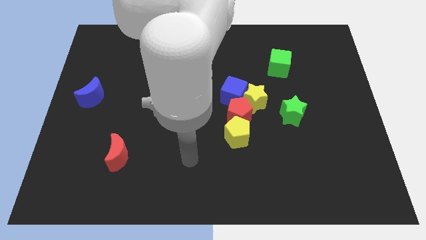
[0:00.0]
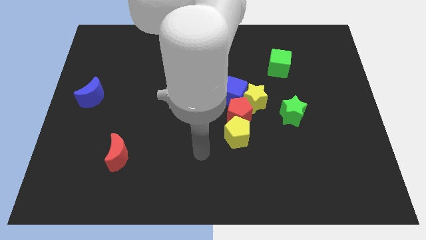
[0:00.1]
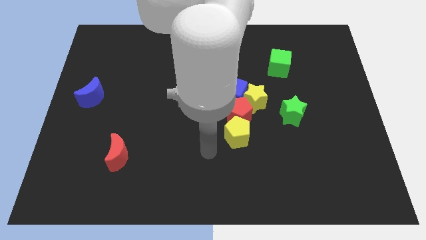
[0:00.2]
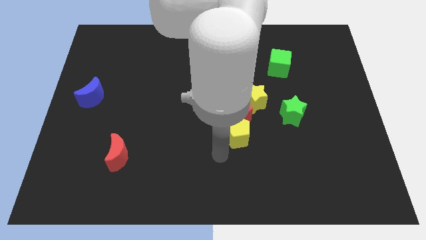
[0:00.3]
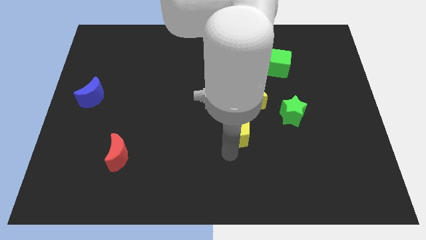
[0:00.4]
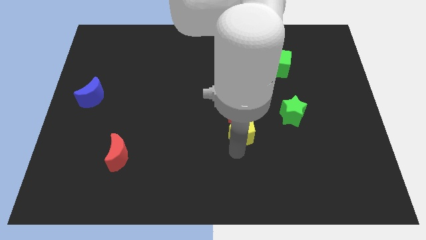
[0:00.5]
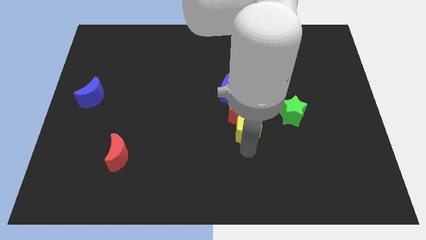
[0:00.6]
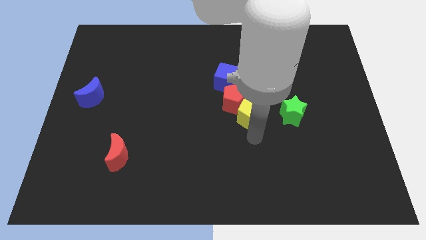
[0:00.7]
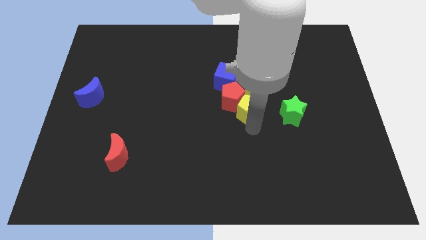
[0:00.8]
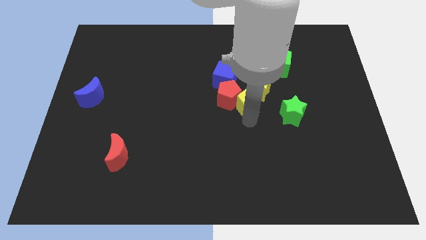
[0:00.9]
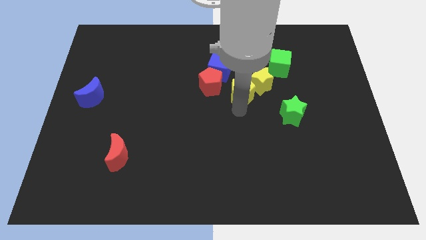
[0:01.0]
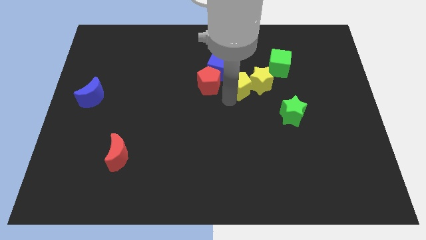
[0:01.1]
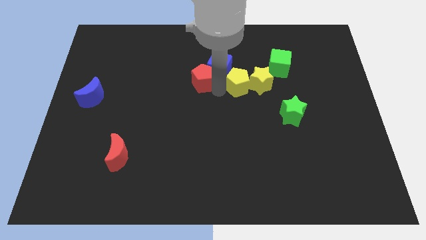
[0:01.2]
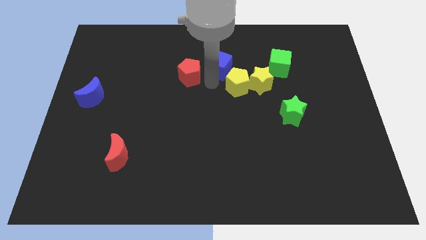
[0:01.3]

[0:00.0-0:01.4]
move the yellow pentagon away from the red pentagon

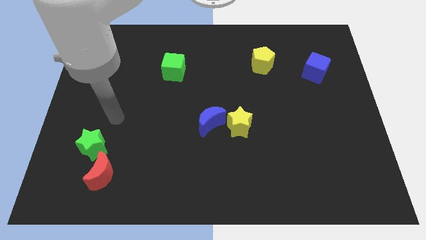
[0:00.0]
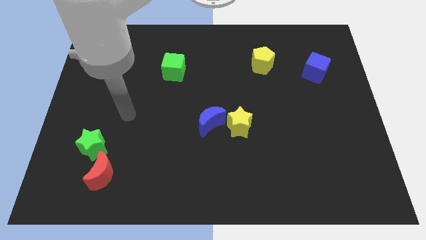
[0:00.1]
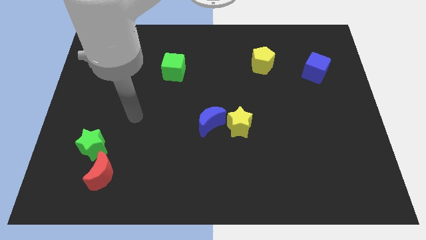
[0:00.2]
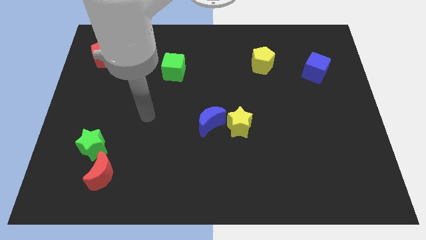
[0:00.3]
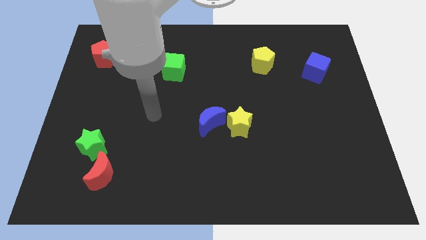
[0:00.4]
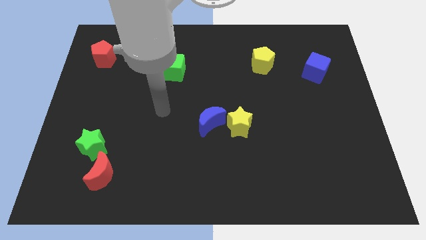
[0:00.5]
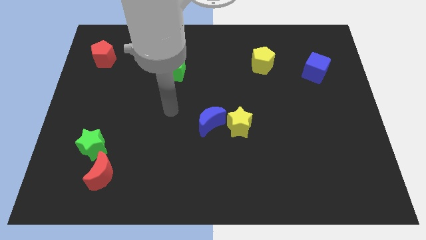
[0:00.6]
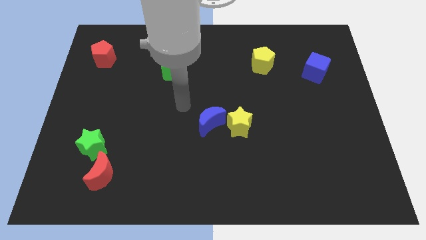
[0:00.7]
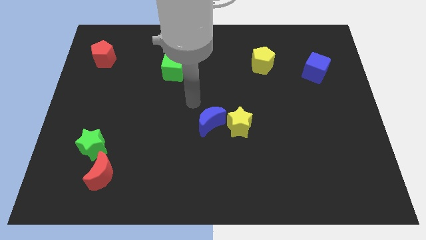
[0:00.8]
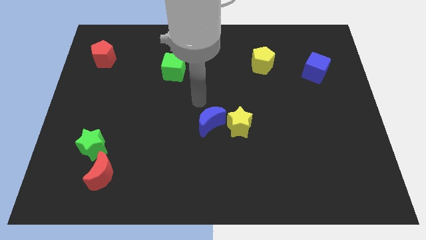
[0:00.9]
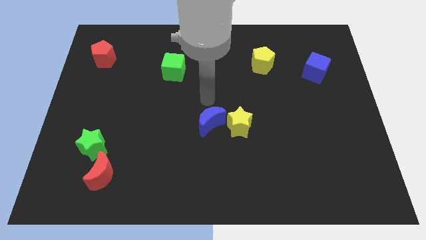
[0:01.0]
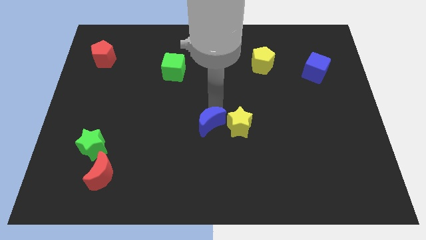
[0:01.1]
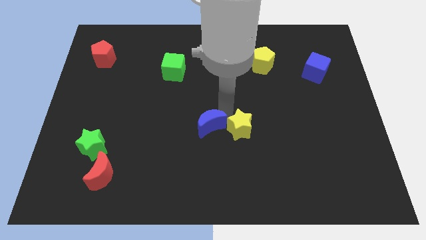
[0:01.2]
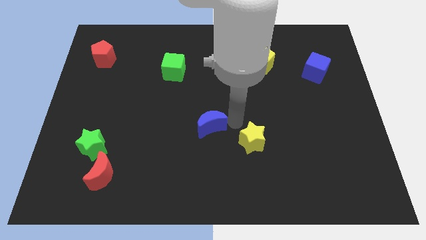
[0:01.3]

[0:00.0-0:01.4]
pull the blue moon apart from the yellow star

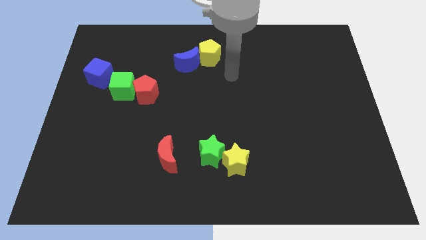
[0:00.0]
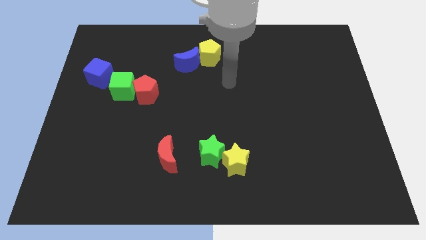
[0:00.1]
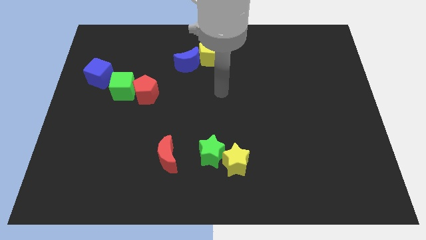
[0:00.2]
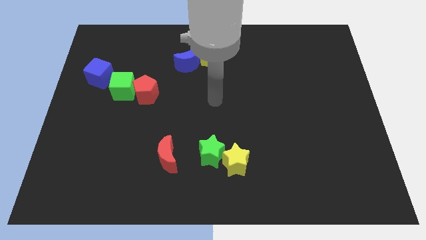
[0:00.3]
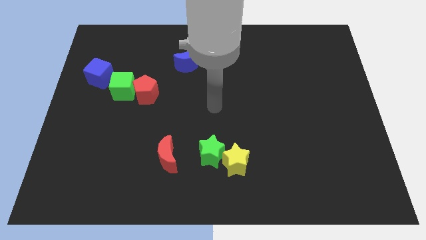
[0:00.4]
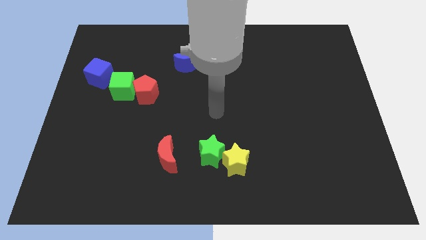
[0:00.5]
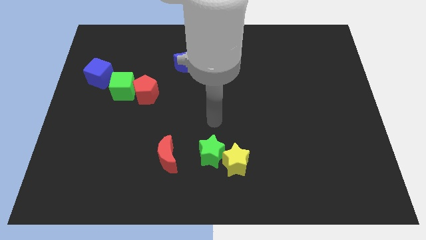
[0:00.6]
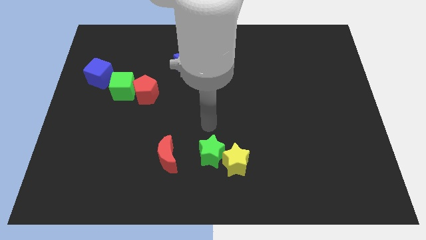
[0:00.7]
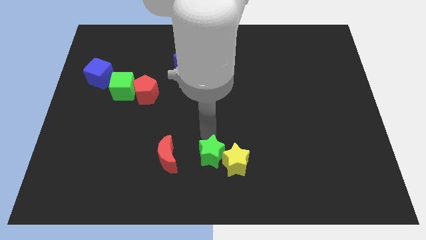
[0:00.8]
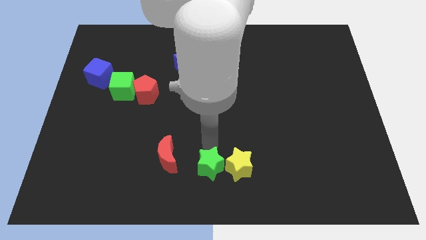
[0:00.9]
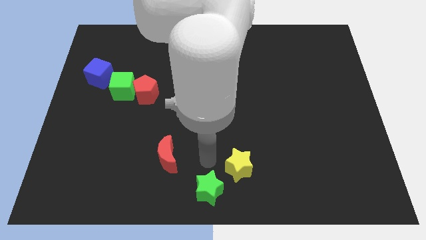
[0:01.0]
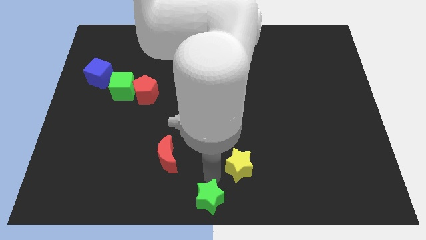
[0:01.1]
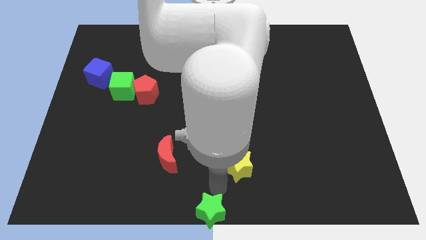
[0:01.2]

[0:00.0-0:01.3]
move the yellow star away from the green star

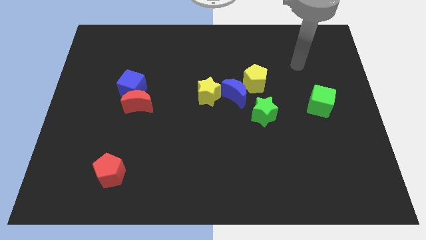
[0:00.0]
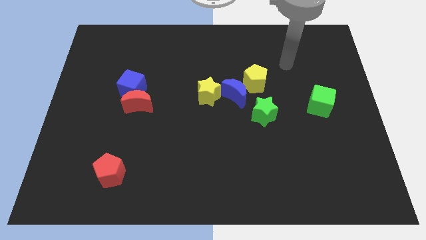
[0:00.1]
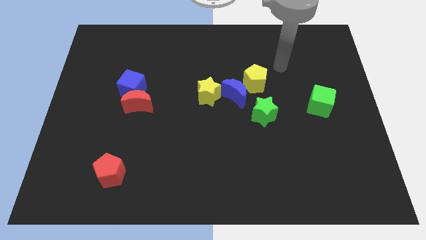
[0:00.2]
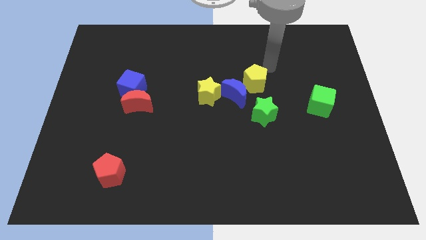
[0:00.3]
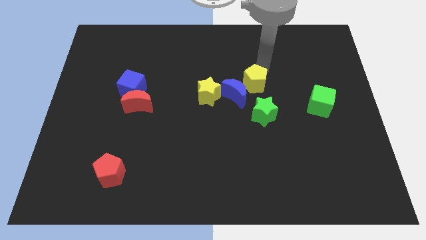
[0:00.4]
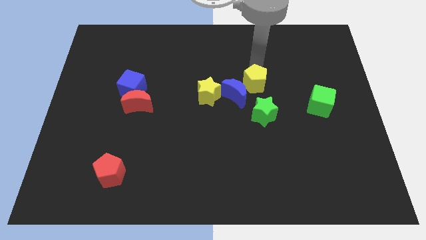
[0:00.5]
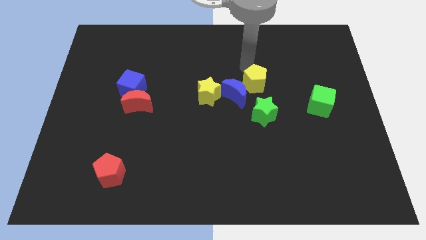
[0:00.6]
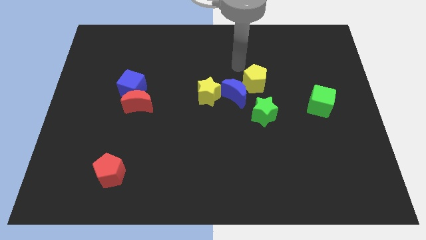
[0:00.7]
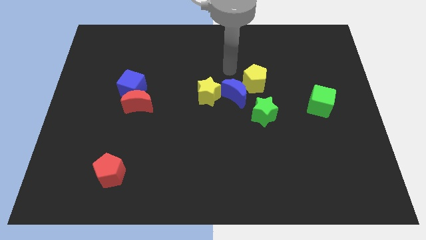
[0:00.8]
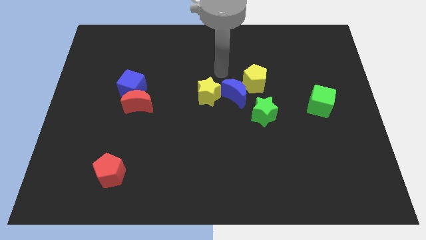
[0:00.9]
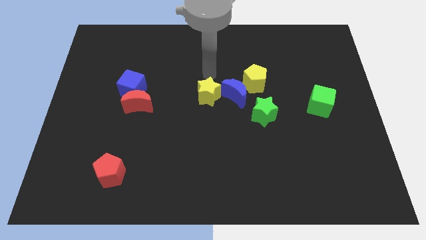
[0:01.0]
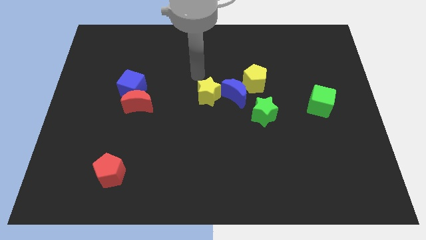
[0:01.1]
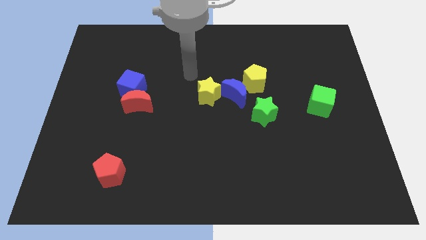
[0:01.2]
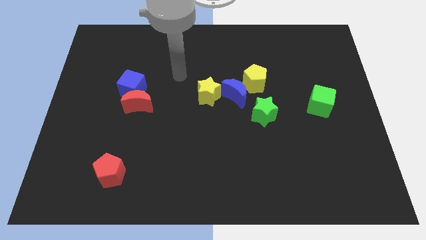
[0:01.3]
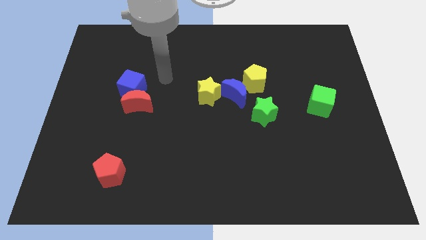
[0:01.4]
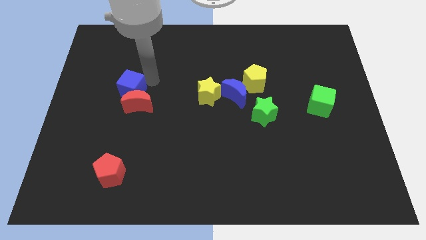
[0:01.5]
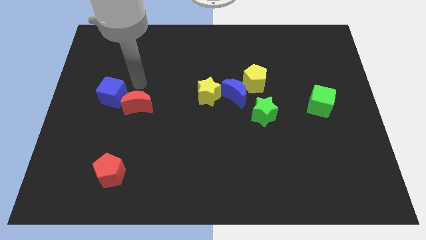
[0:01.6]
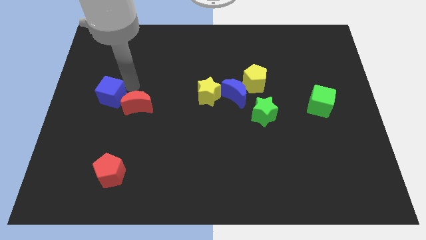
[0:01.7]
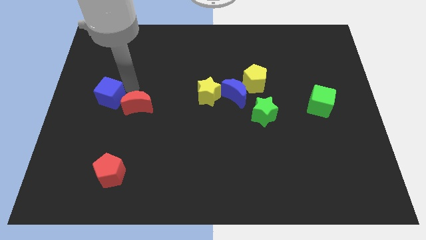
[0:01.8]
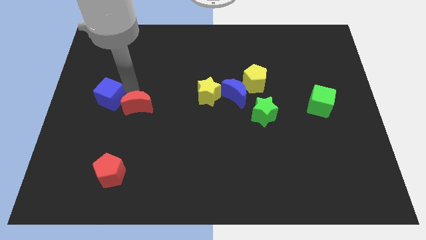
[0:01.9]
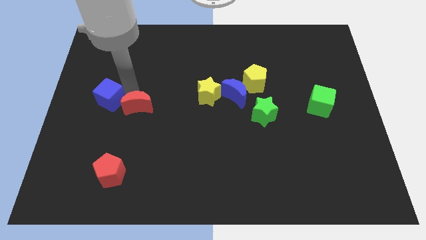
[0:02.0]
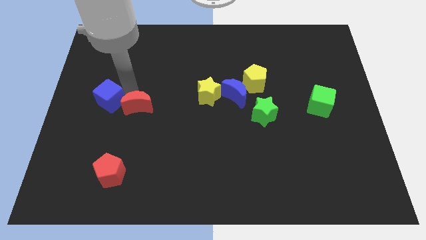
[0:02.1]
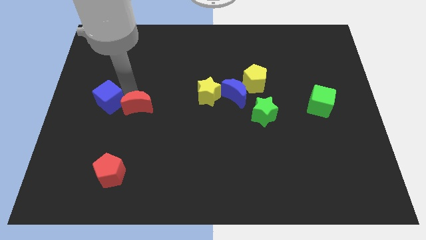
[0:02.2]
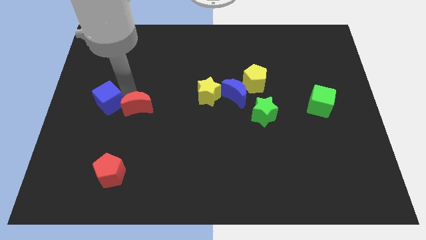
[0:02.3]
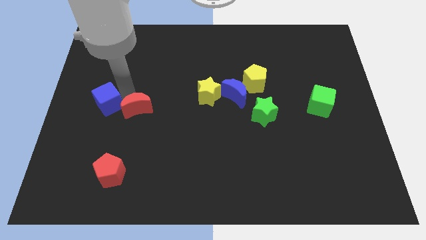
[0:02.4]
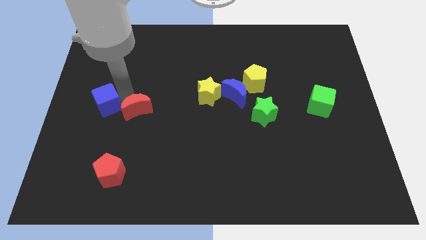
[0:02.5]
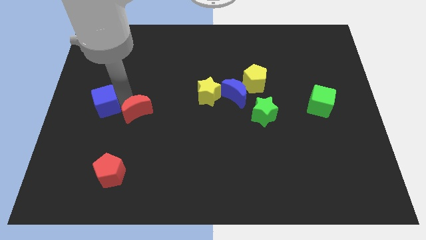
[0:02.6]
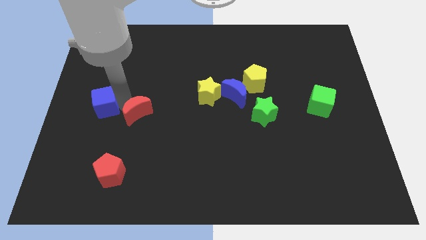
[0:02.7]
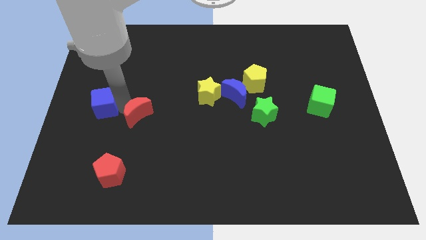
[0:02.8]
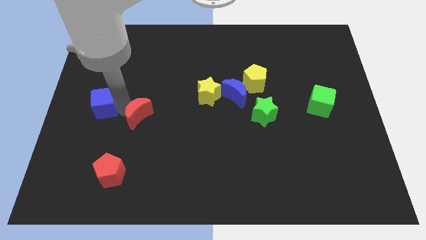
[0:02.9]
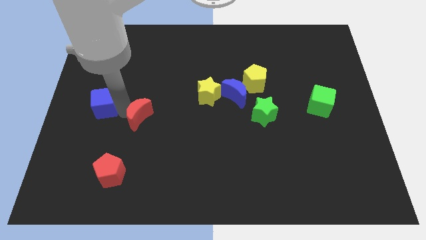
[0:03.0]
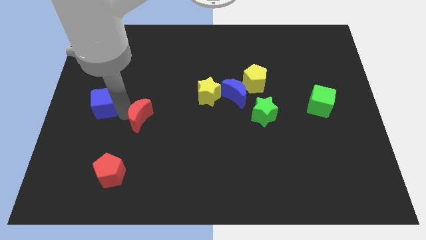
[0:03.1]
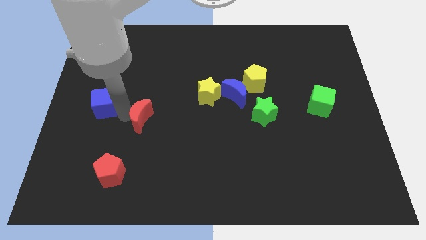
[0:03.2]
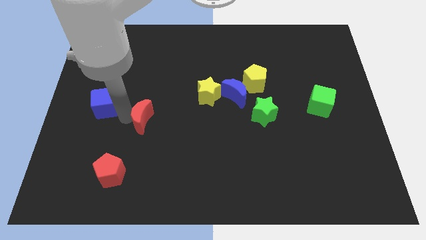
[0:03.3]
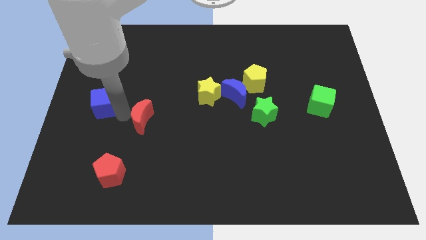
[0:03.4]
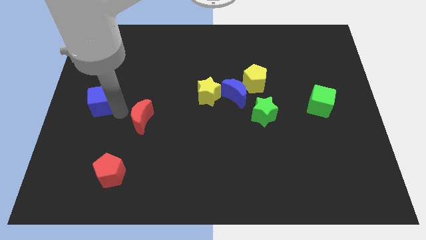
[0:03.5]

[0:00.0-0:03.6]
move the red moon away from the blue cube

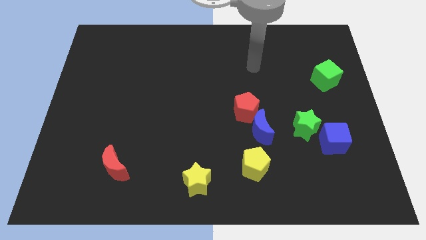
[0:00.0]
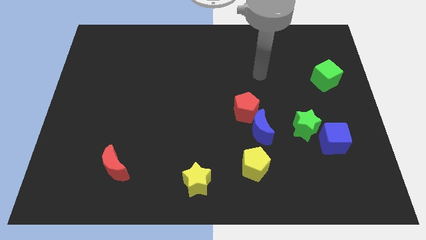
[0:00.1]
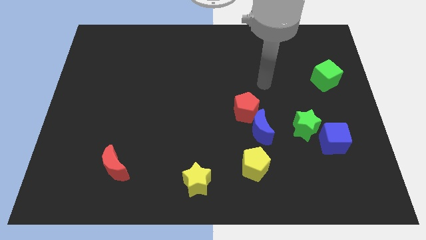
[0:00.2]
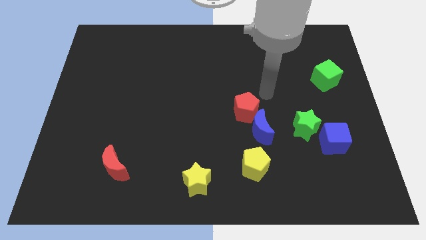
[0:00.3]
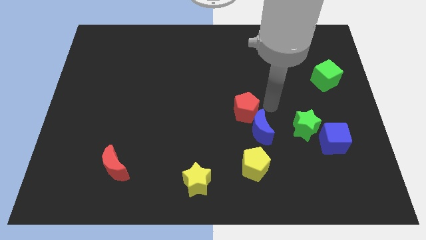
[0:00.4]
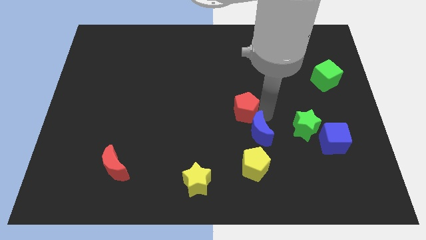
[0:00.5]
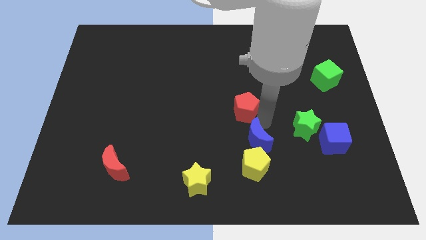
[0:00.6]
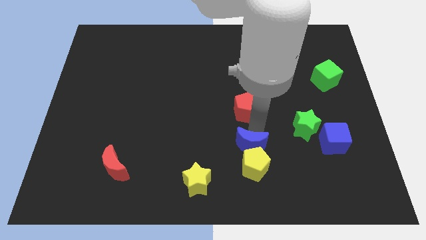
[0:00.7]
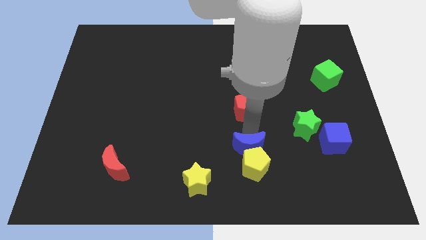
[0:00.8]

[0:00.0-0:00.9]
separate the red pentagon from the blue moon

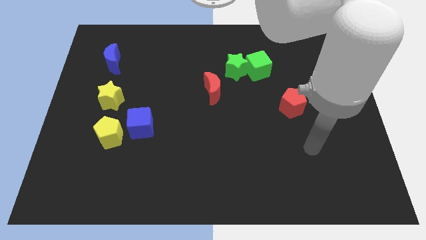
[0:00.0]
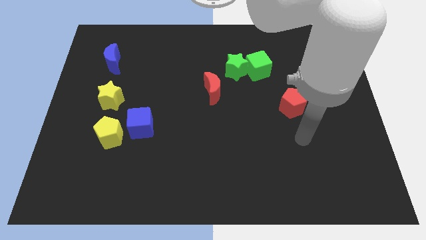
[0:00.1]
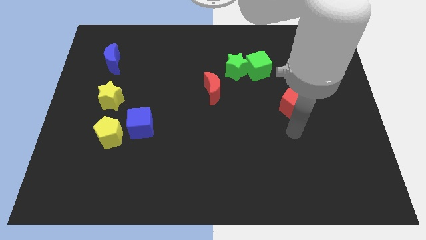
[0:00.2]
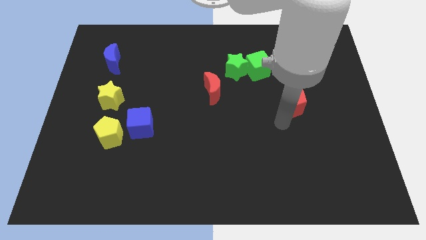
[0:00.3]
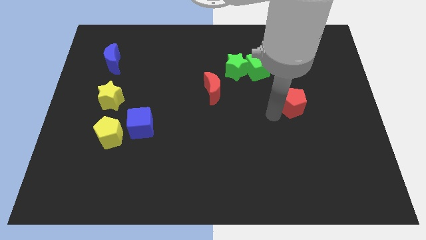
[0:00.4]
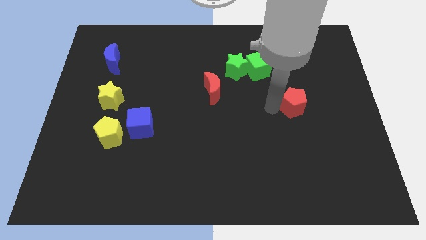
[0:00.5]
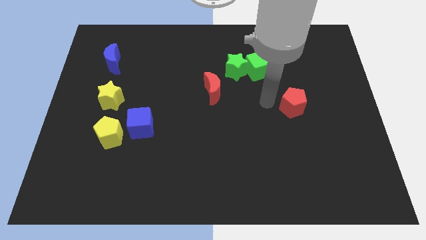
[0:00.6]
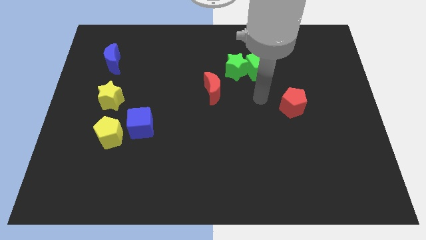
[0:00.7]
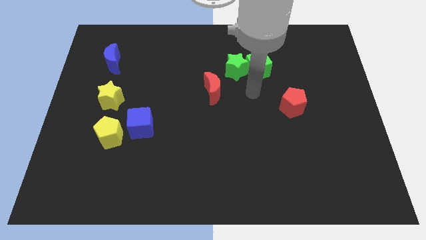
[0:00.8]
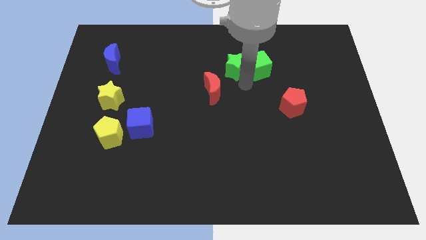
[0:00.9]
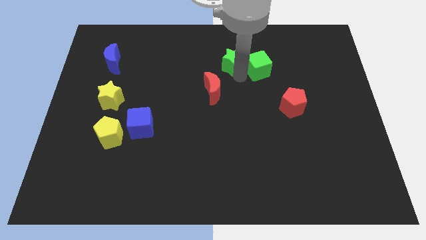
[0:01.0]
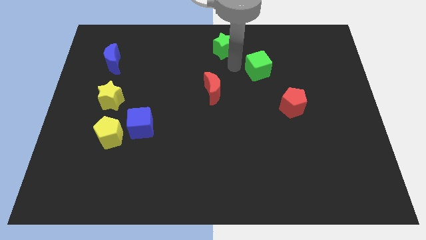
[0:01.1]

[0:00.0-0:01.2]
move the green cube away from the green star